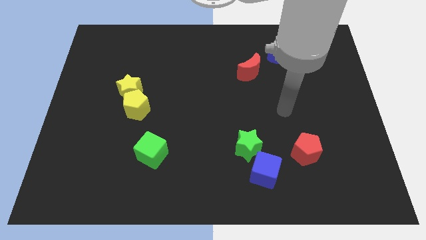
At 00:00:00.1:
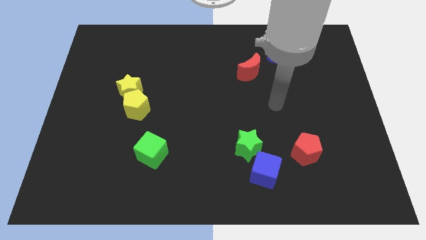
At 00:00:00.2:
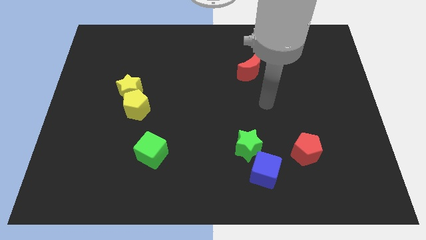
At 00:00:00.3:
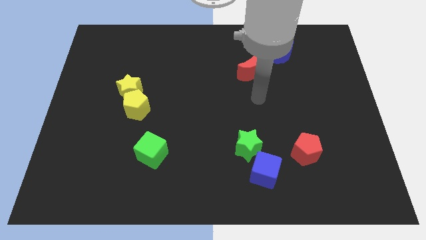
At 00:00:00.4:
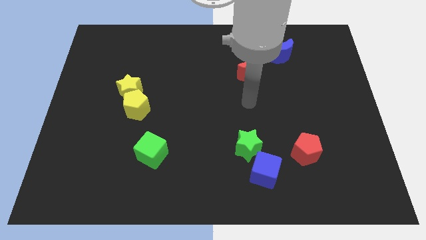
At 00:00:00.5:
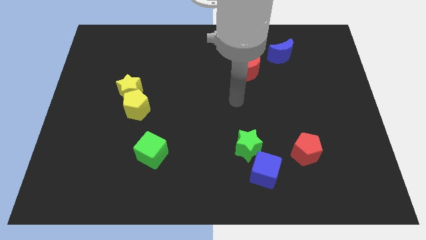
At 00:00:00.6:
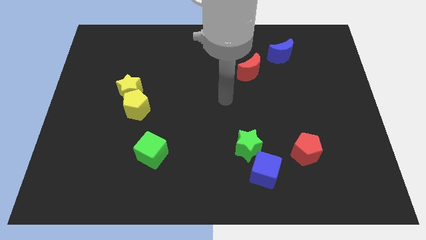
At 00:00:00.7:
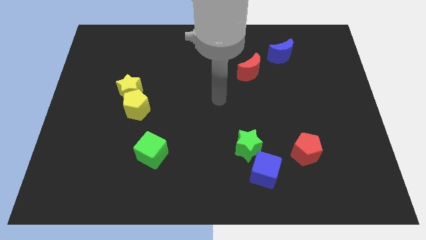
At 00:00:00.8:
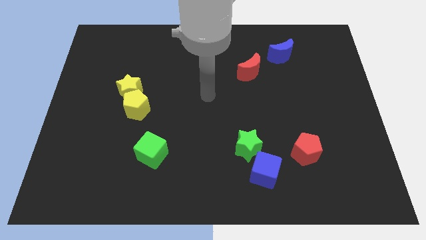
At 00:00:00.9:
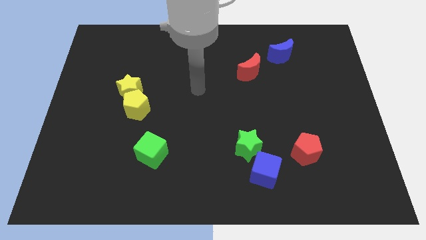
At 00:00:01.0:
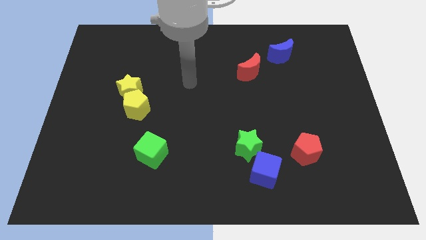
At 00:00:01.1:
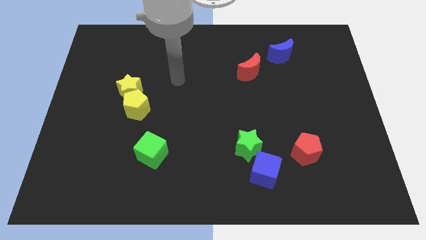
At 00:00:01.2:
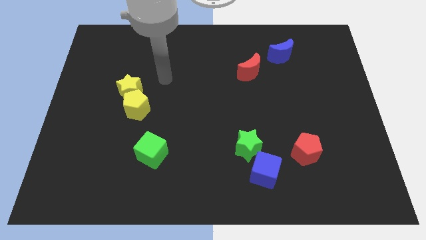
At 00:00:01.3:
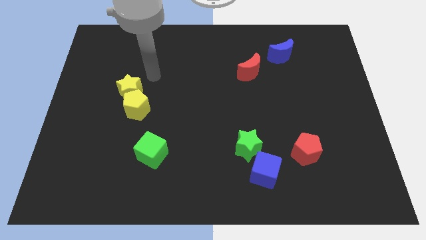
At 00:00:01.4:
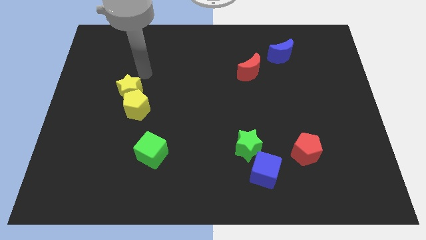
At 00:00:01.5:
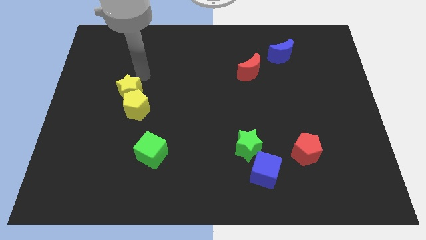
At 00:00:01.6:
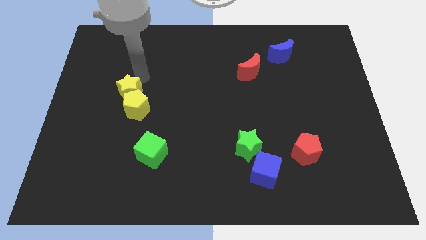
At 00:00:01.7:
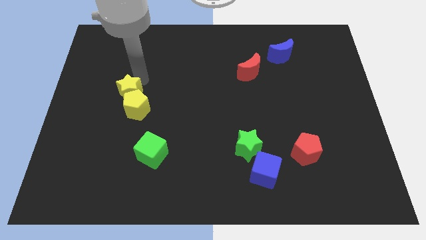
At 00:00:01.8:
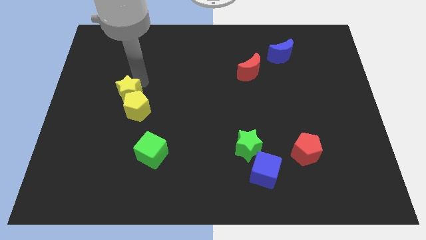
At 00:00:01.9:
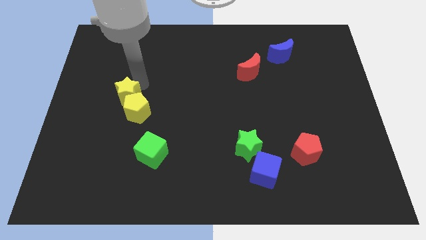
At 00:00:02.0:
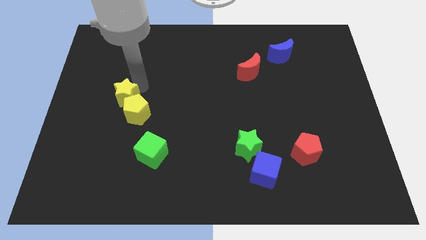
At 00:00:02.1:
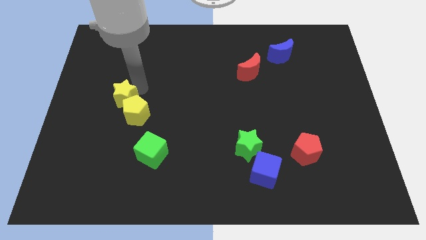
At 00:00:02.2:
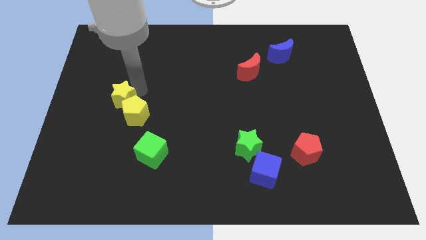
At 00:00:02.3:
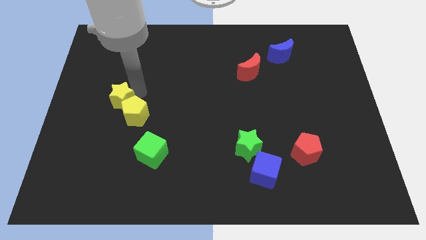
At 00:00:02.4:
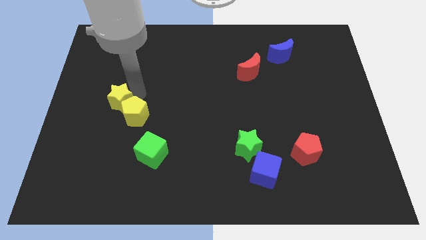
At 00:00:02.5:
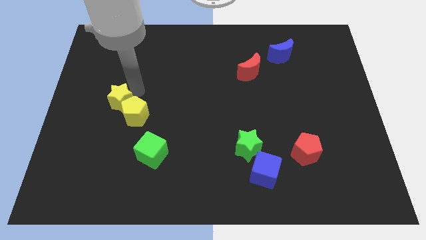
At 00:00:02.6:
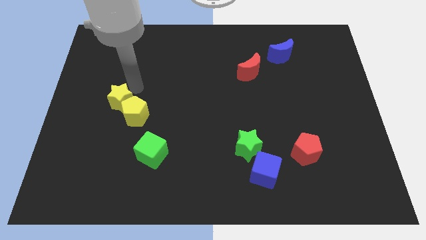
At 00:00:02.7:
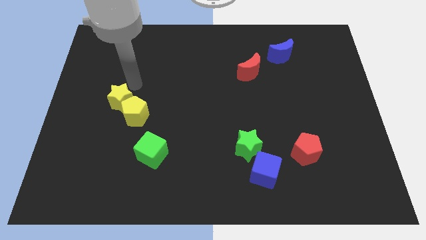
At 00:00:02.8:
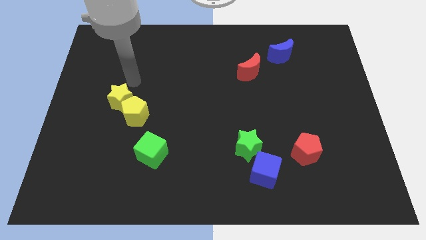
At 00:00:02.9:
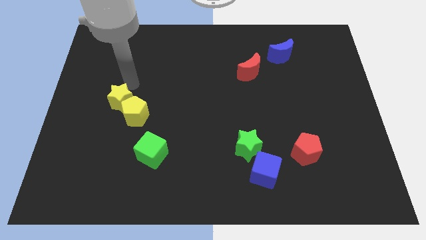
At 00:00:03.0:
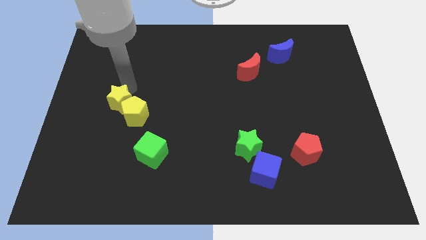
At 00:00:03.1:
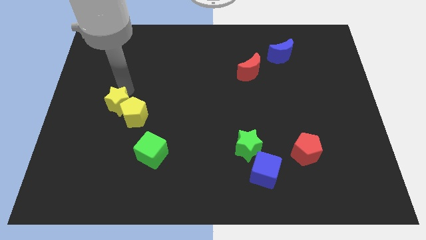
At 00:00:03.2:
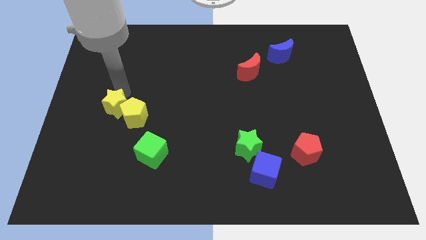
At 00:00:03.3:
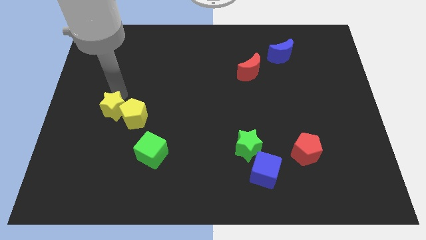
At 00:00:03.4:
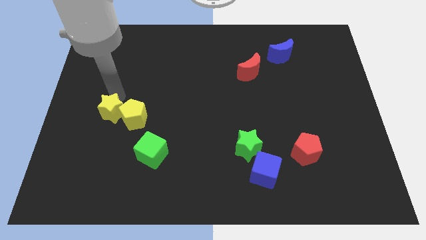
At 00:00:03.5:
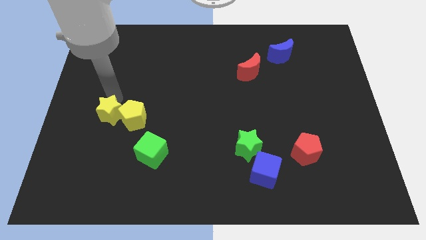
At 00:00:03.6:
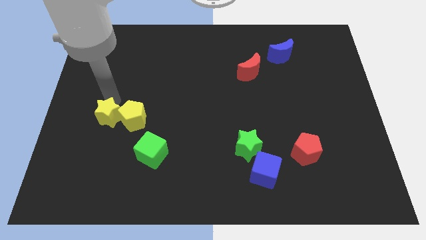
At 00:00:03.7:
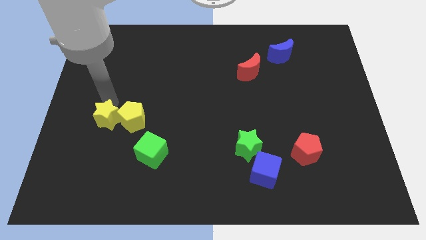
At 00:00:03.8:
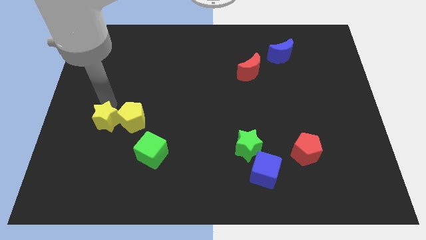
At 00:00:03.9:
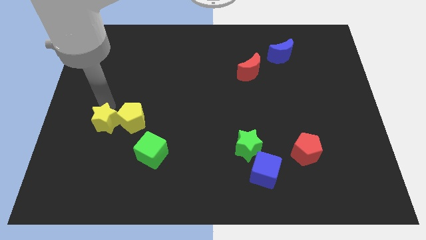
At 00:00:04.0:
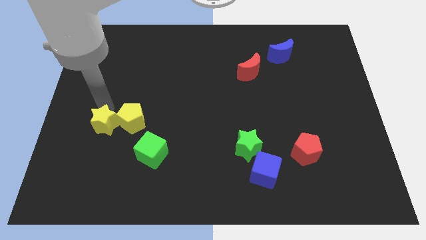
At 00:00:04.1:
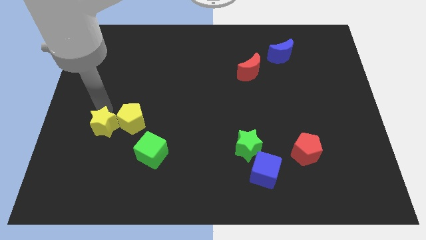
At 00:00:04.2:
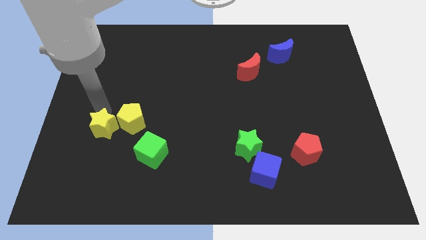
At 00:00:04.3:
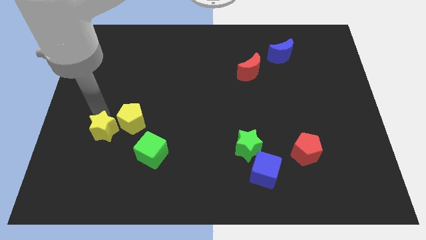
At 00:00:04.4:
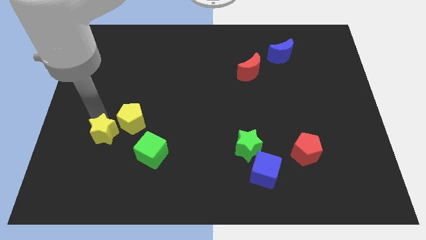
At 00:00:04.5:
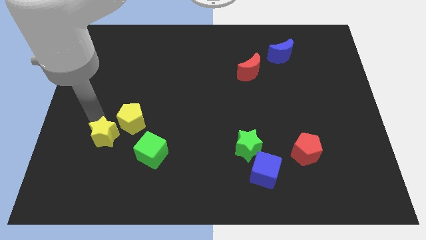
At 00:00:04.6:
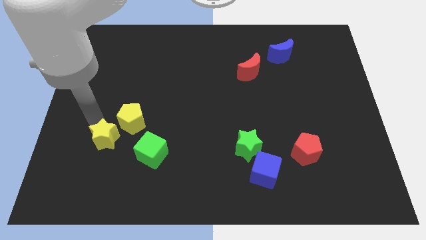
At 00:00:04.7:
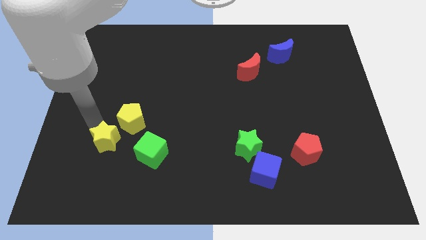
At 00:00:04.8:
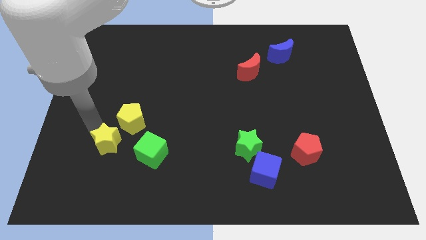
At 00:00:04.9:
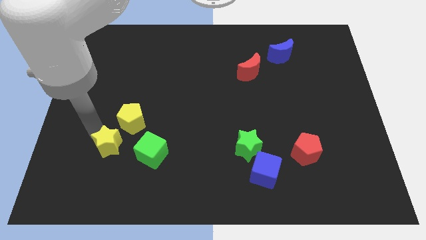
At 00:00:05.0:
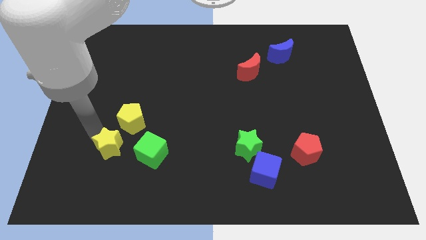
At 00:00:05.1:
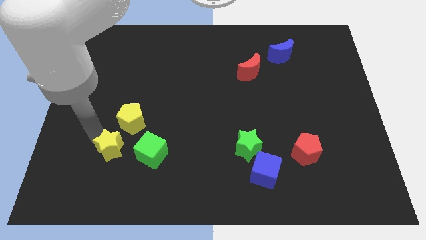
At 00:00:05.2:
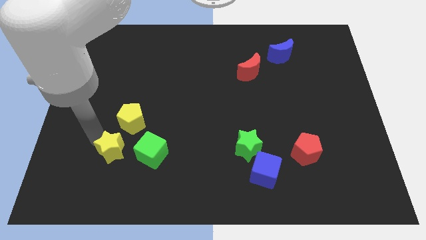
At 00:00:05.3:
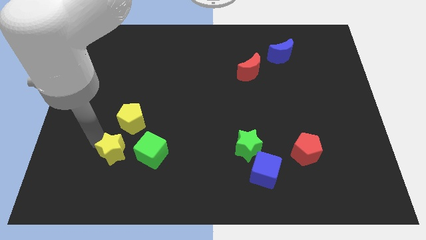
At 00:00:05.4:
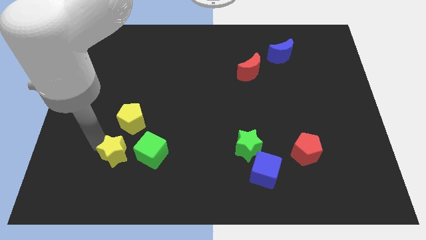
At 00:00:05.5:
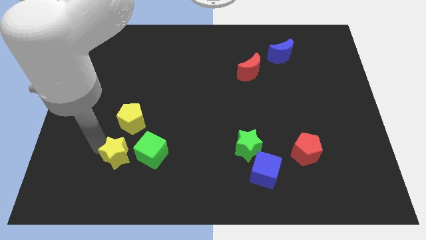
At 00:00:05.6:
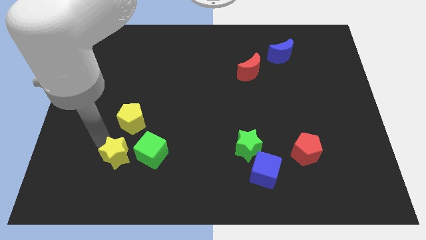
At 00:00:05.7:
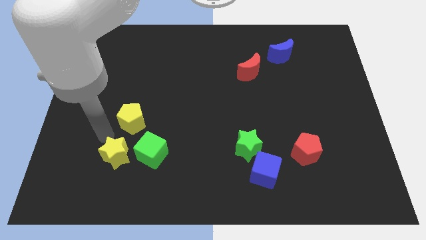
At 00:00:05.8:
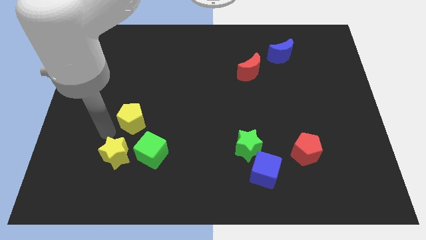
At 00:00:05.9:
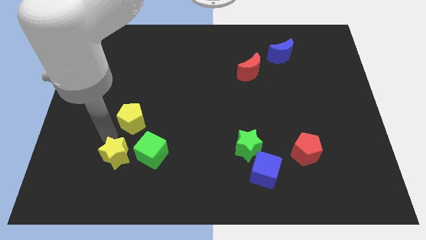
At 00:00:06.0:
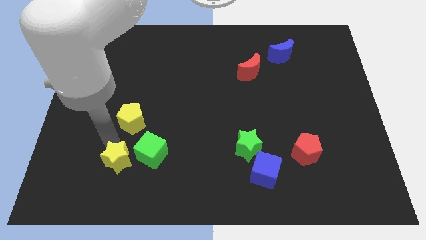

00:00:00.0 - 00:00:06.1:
put the yellow star diagonally down and to the left of the green cube
